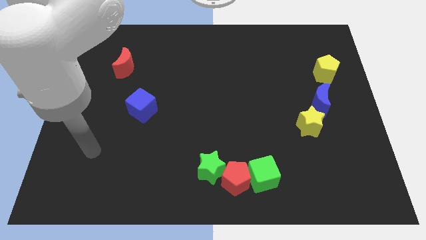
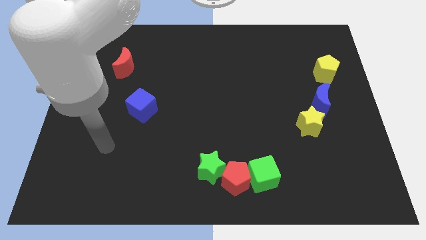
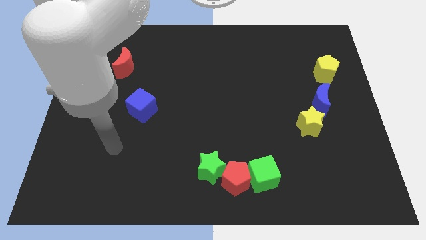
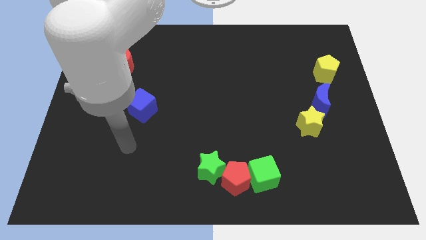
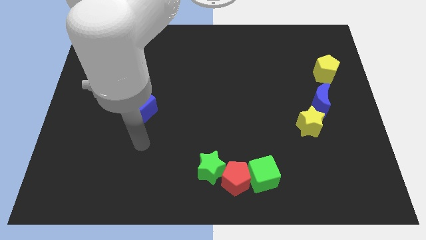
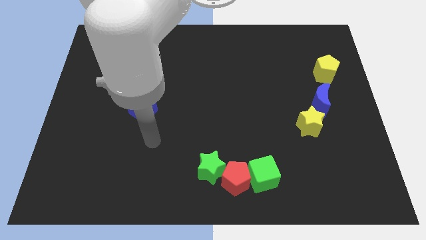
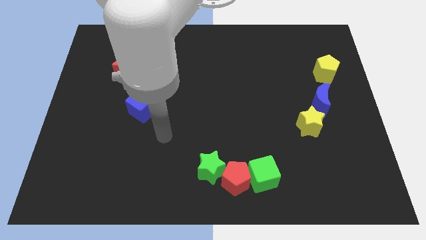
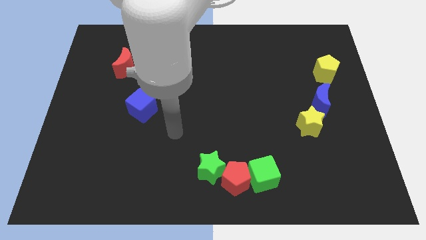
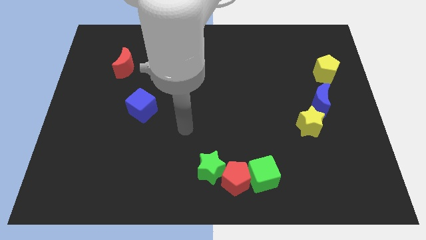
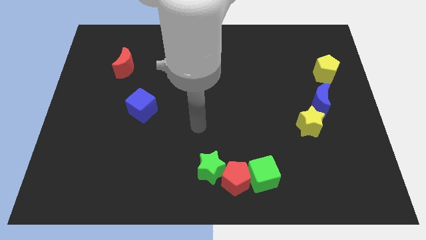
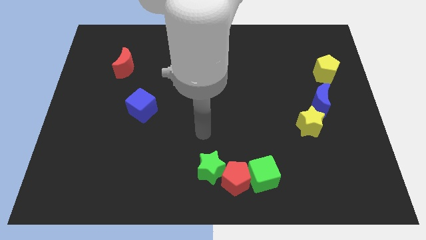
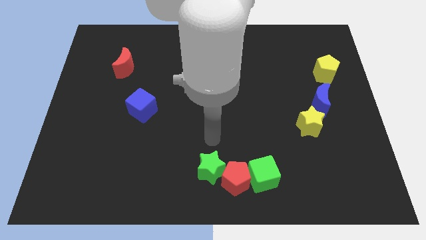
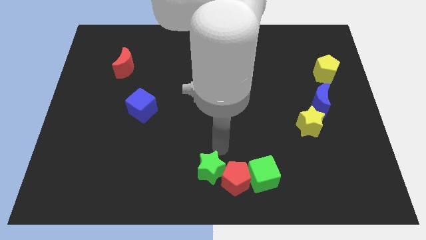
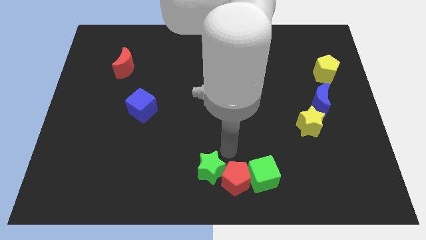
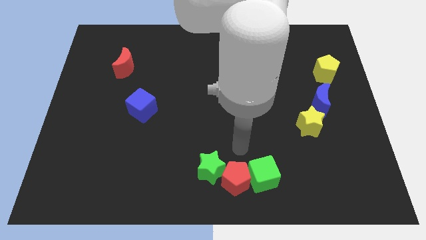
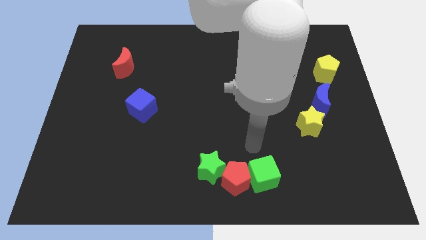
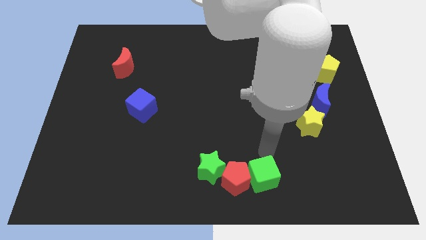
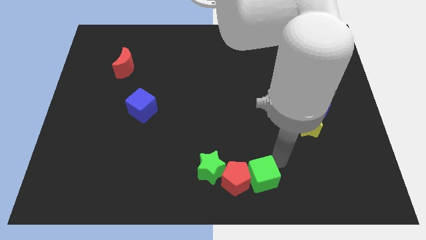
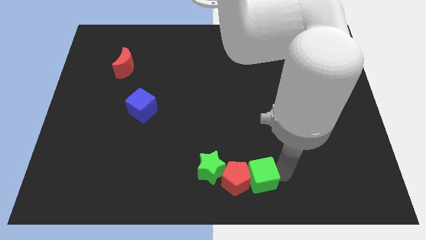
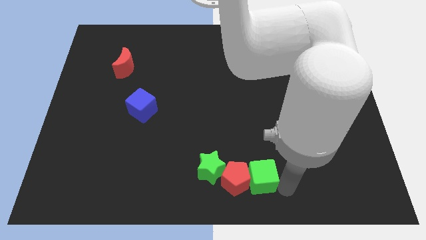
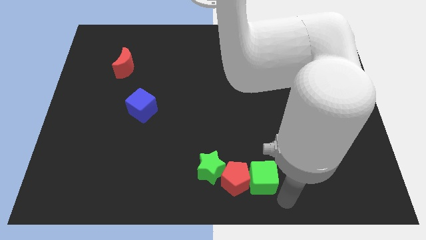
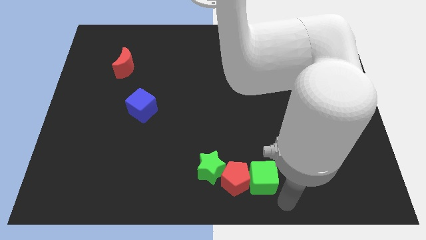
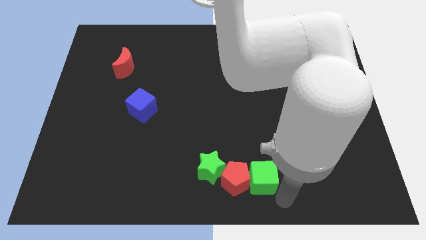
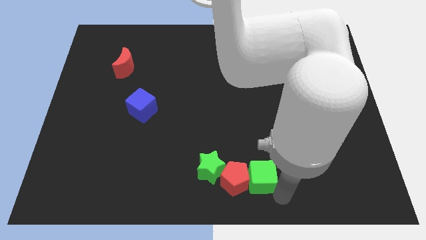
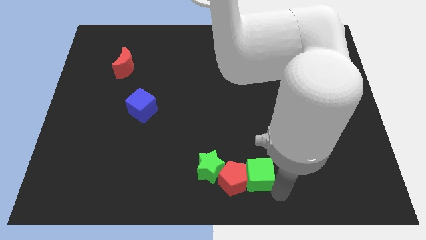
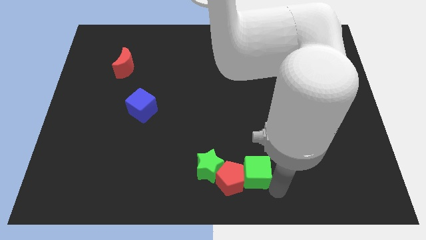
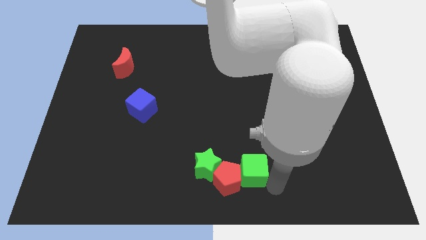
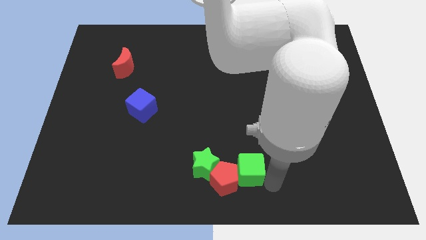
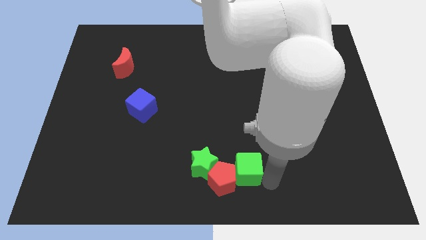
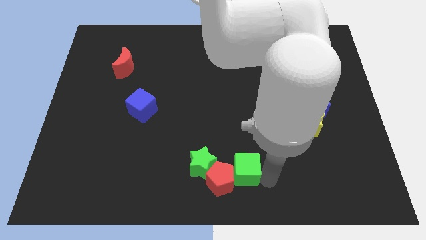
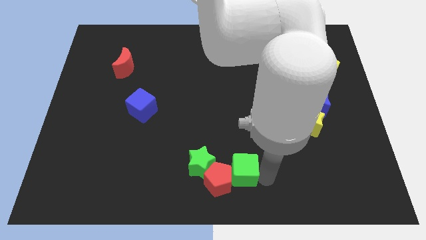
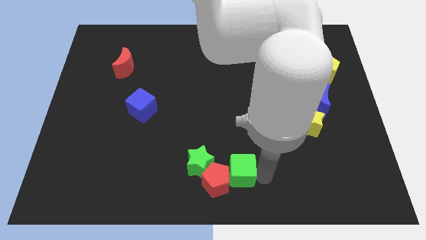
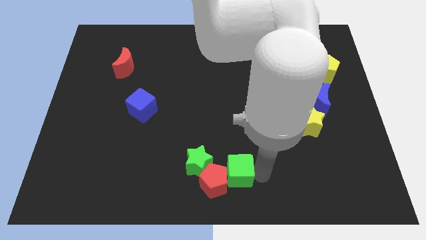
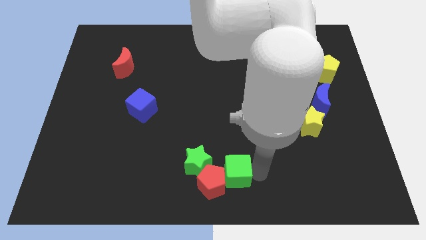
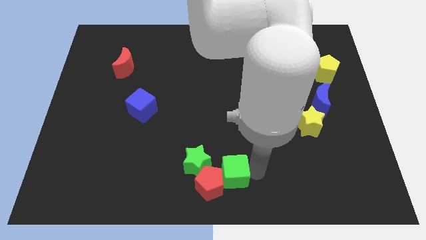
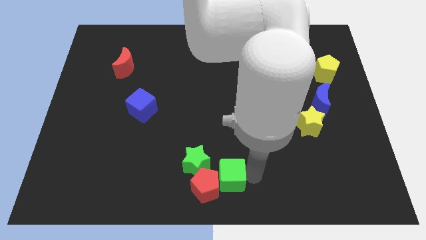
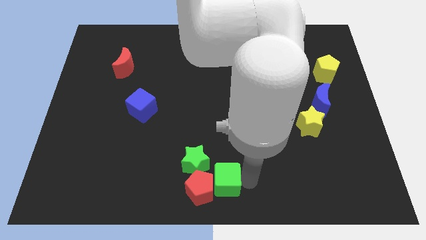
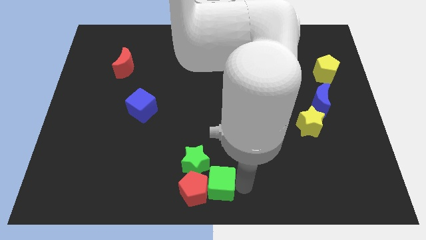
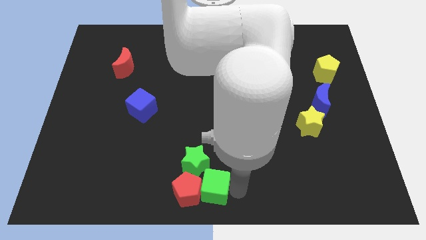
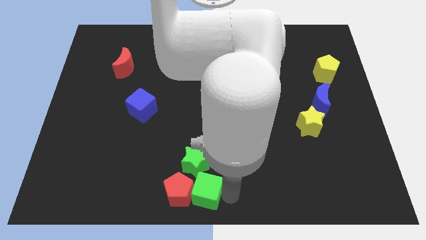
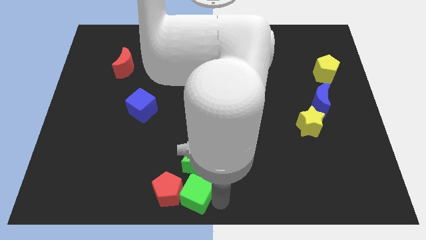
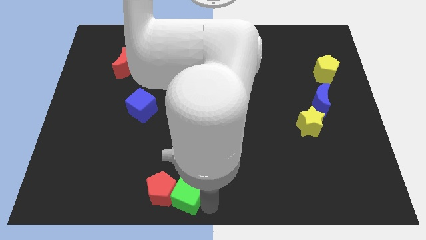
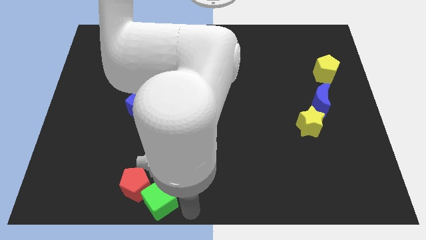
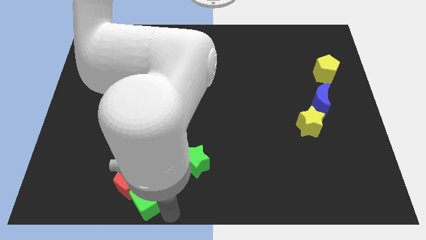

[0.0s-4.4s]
move the green cube to the left

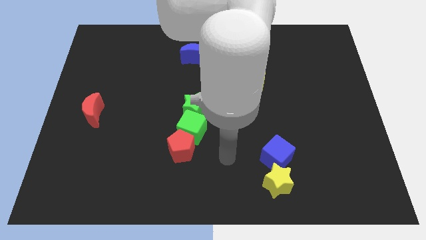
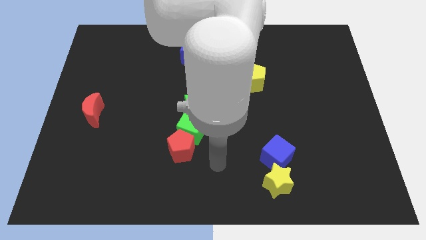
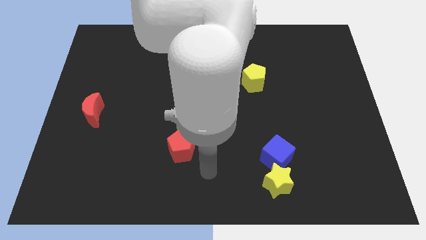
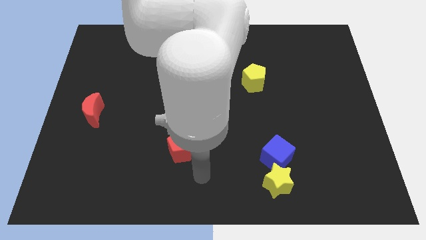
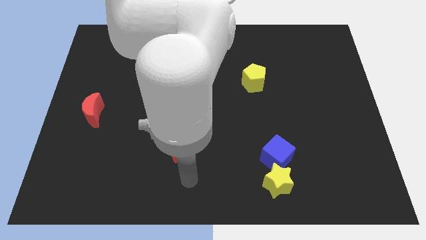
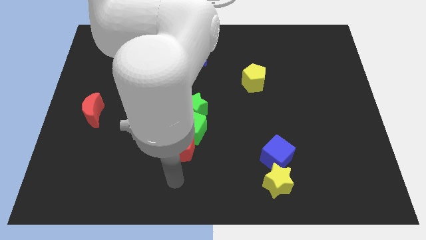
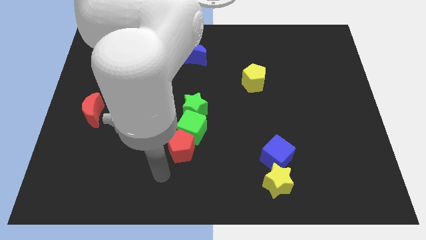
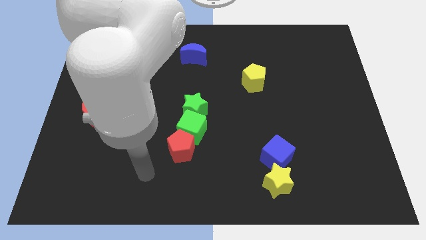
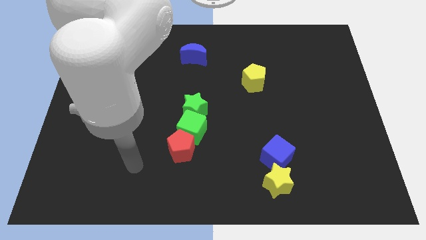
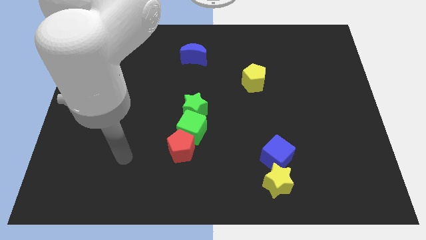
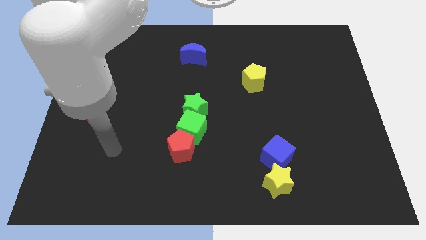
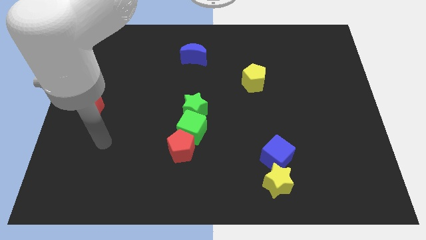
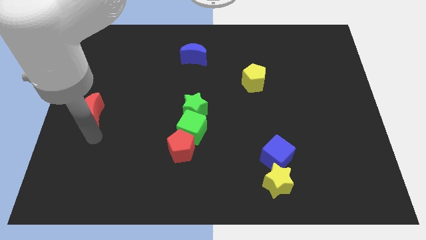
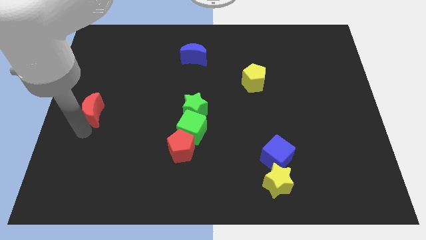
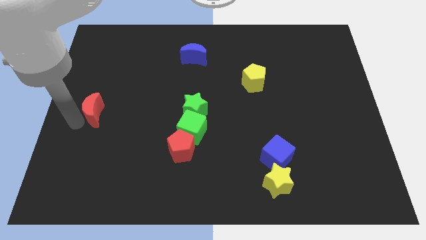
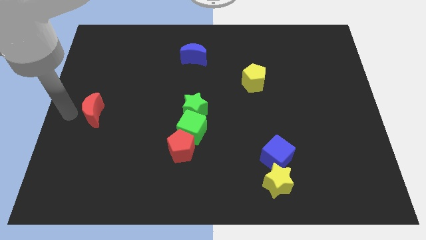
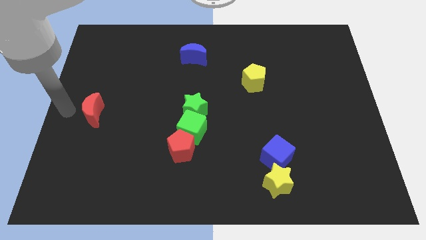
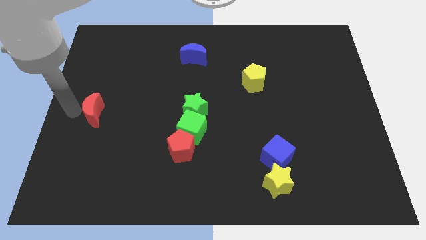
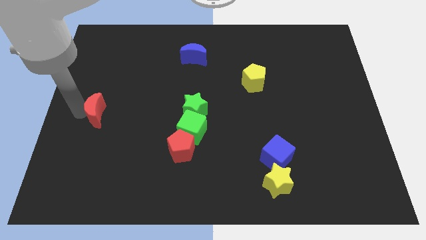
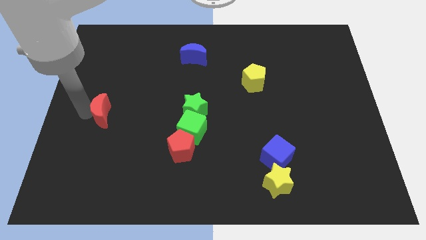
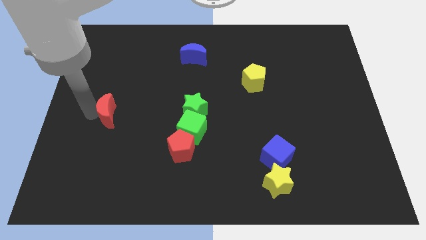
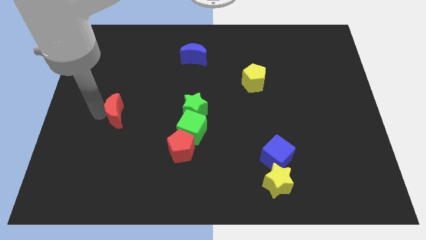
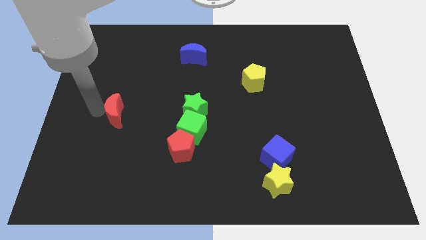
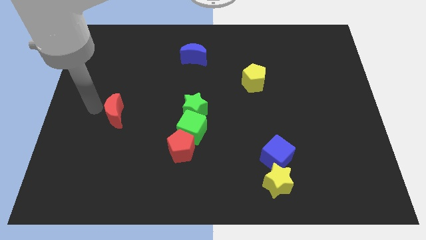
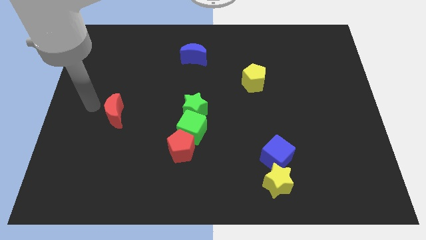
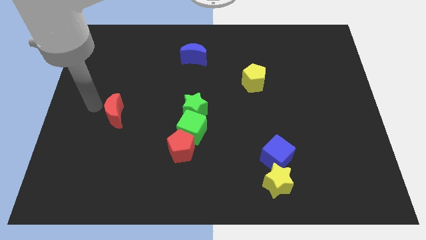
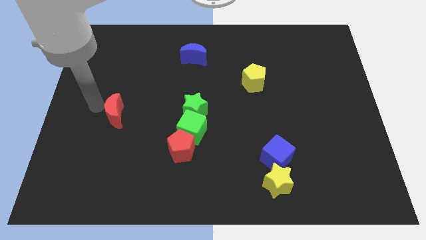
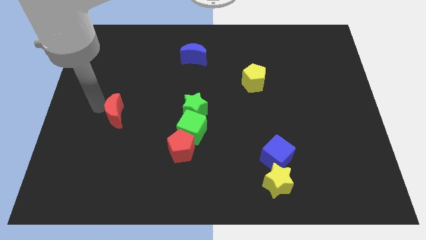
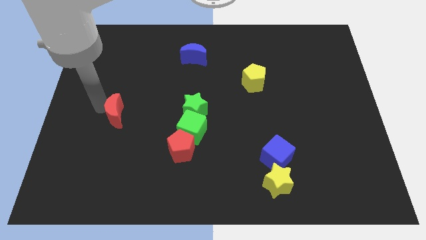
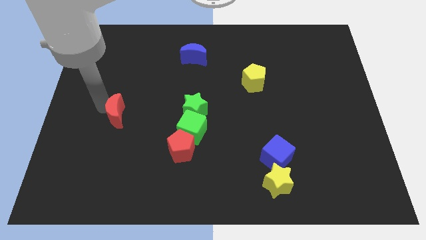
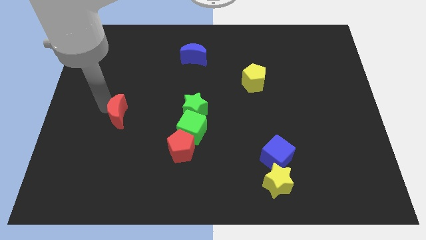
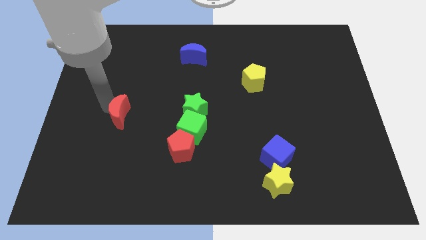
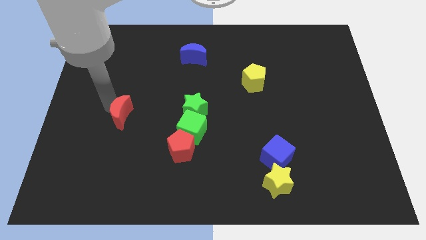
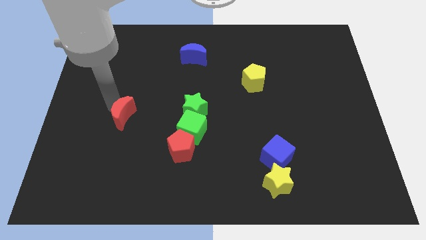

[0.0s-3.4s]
move the red moon a little to the right

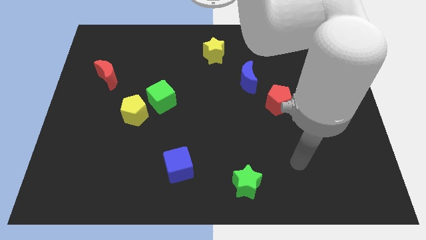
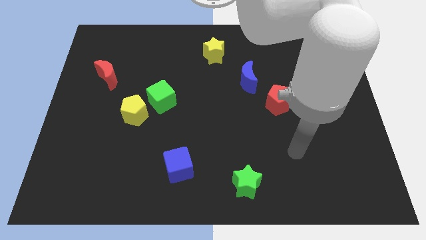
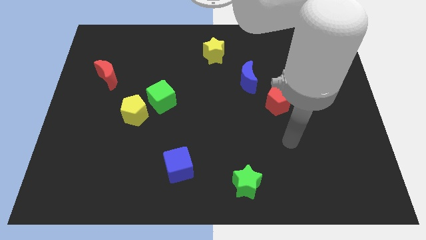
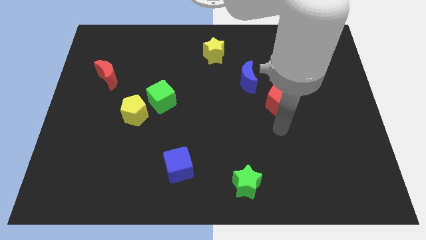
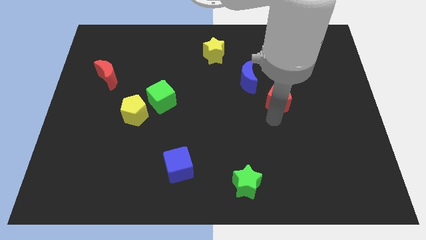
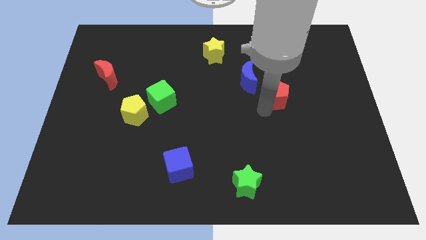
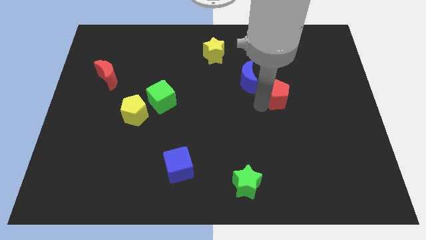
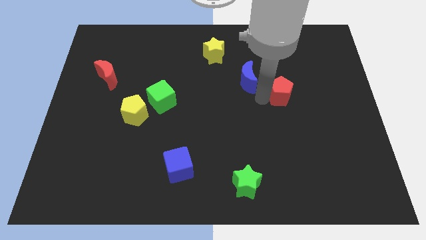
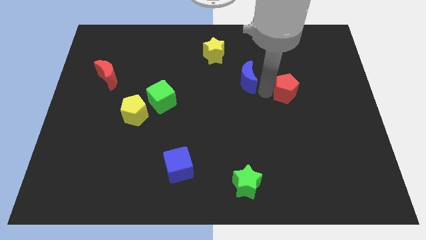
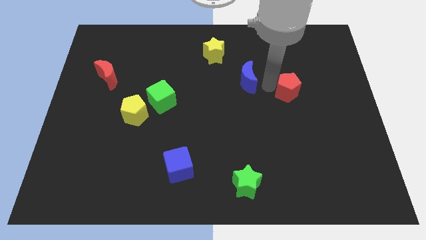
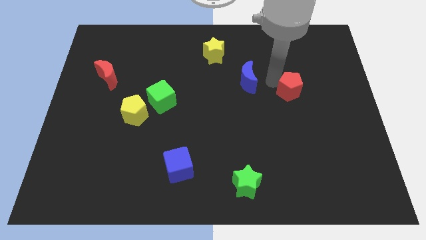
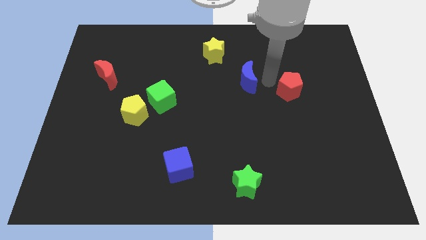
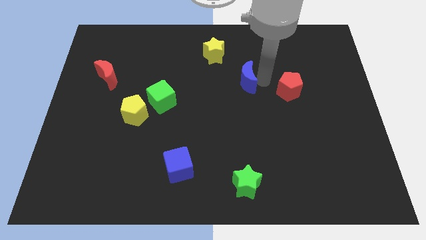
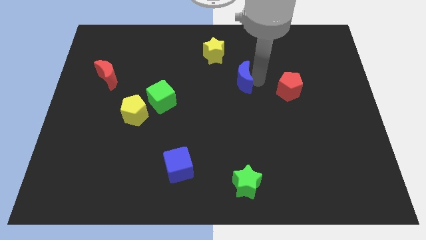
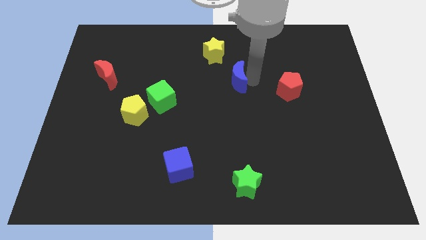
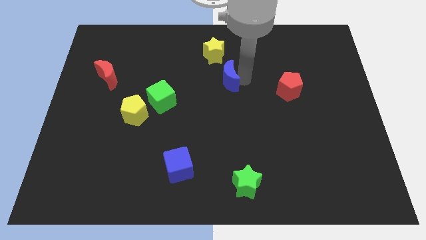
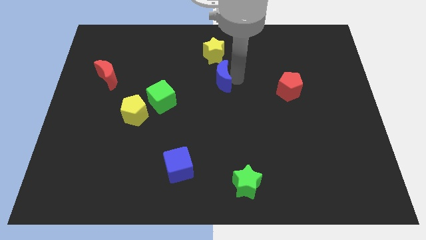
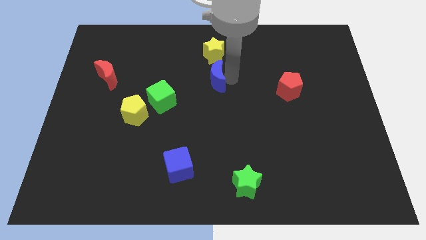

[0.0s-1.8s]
slide the blue moon left somewhat
